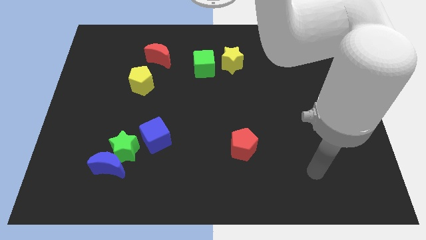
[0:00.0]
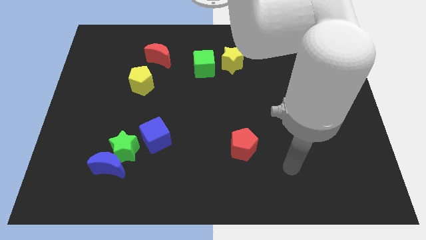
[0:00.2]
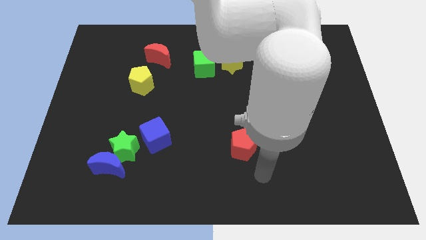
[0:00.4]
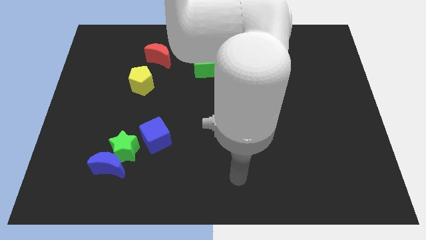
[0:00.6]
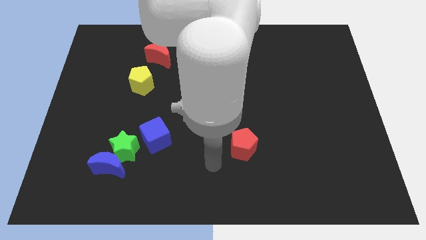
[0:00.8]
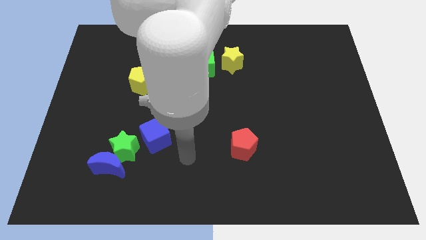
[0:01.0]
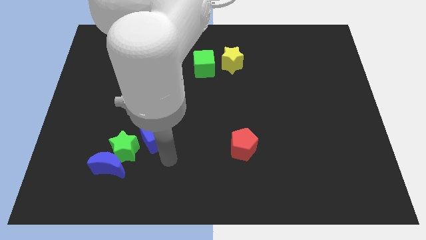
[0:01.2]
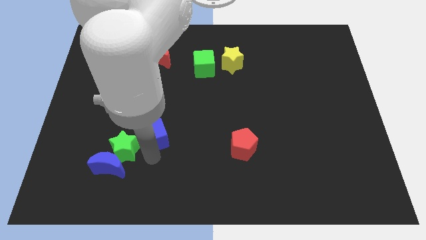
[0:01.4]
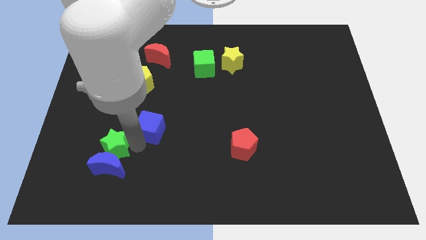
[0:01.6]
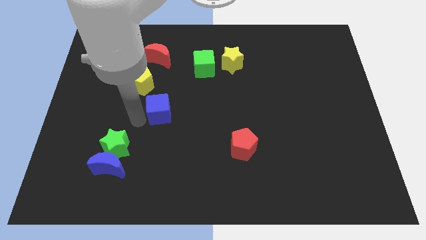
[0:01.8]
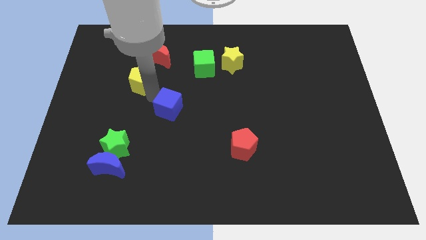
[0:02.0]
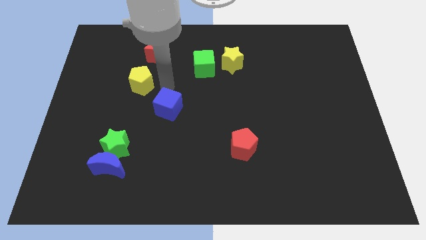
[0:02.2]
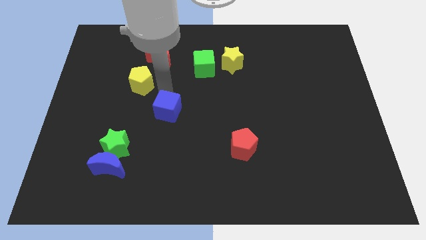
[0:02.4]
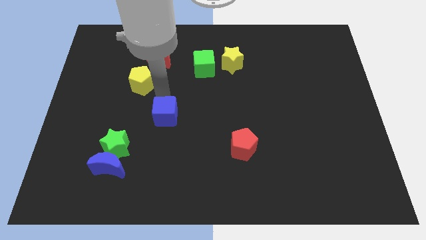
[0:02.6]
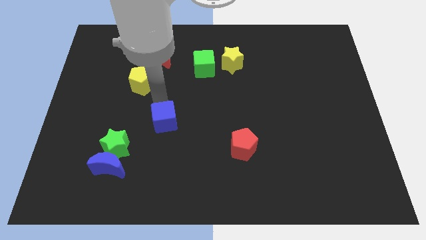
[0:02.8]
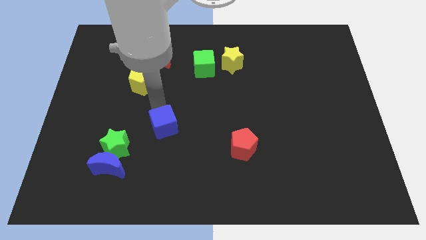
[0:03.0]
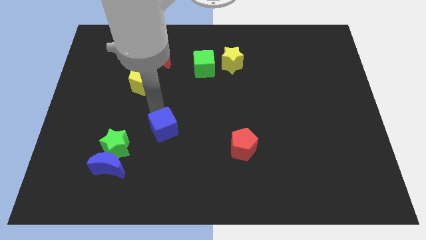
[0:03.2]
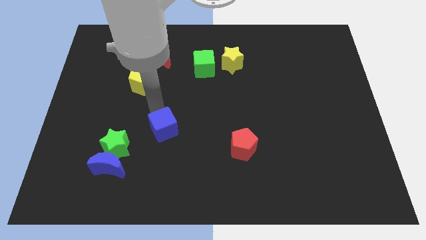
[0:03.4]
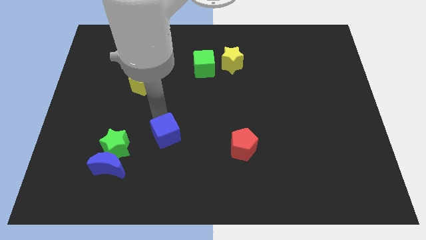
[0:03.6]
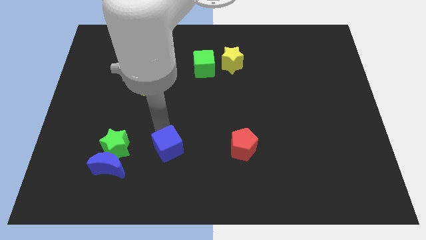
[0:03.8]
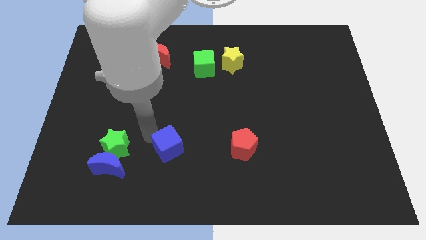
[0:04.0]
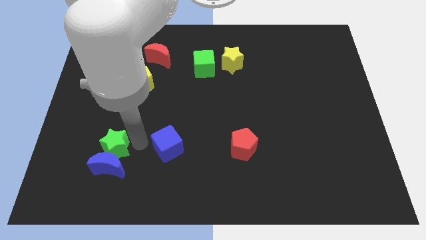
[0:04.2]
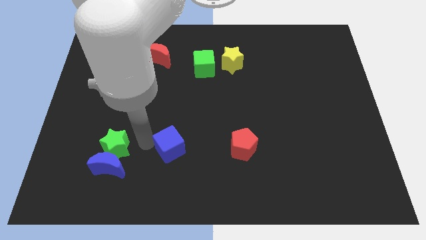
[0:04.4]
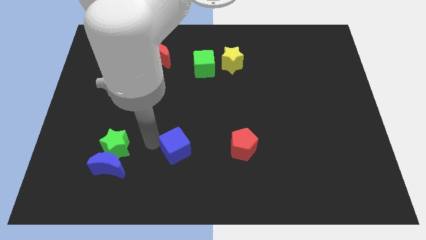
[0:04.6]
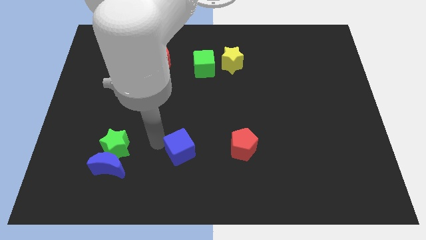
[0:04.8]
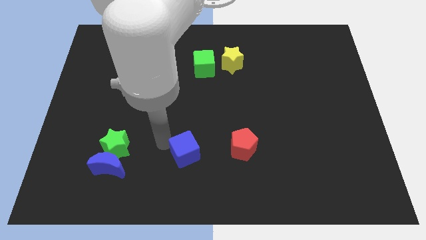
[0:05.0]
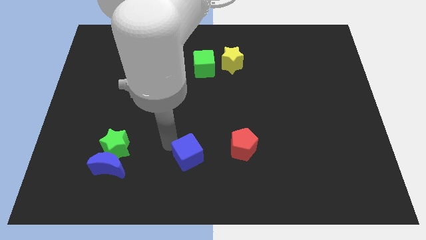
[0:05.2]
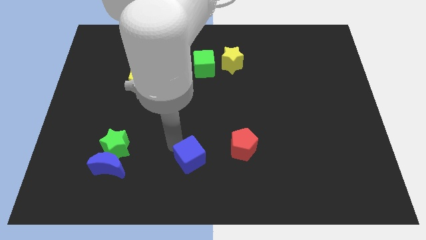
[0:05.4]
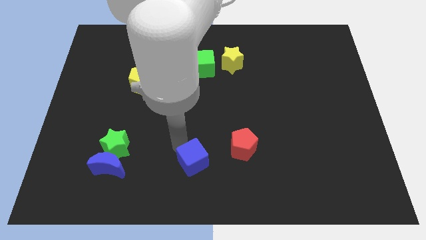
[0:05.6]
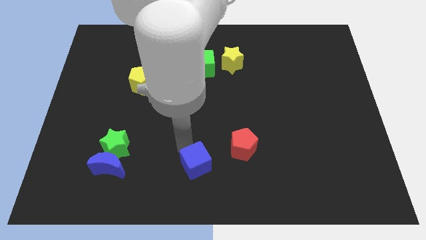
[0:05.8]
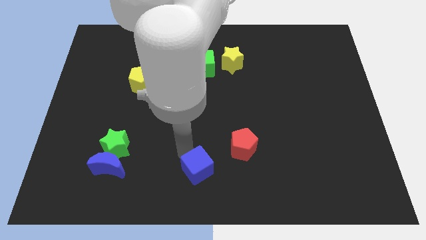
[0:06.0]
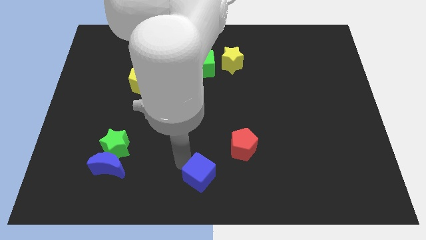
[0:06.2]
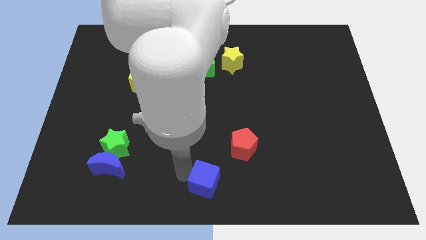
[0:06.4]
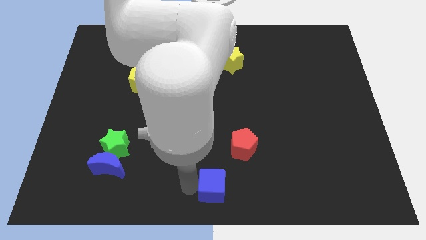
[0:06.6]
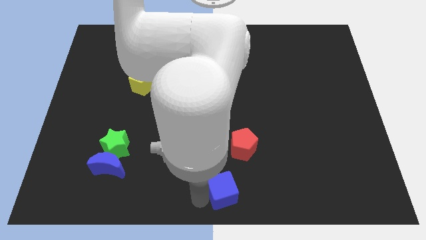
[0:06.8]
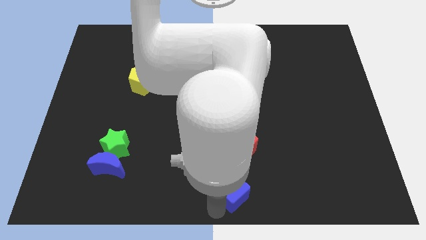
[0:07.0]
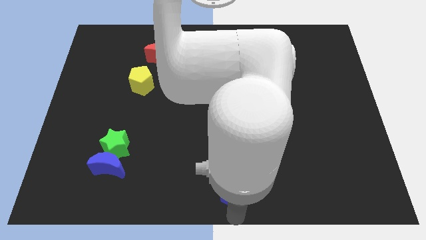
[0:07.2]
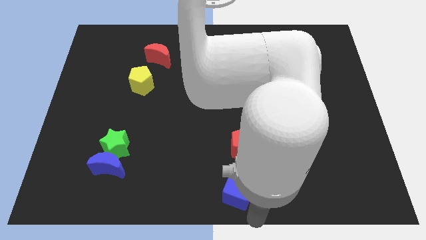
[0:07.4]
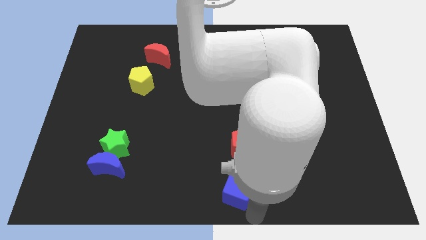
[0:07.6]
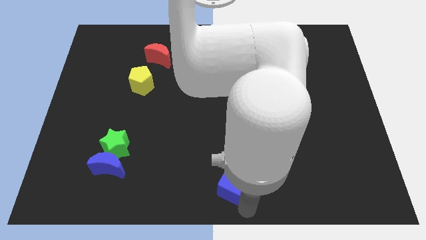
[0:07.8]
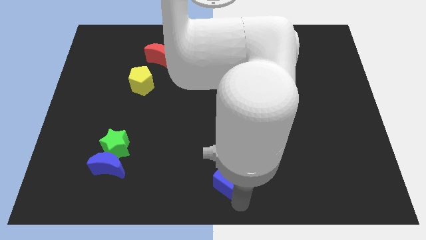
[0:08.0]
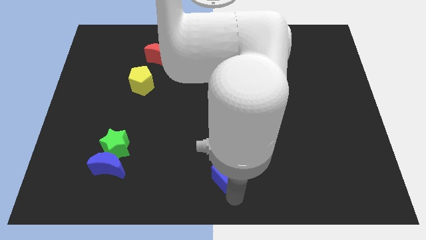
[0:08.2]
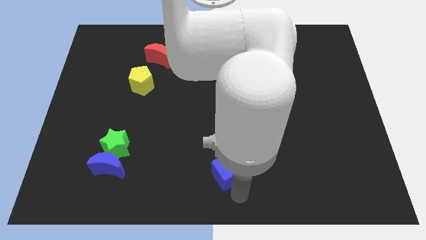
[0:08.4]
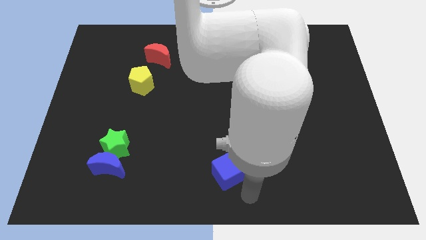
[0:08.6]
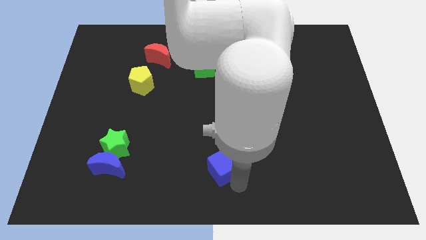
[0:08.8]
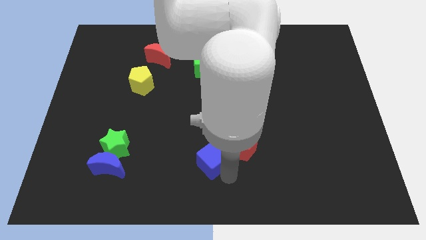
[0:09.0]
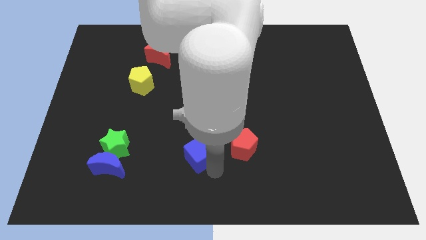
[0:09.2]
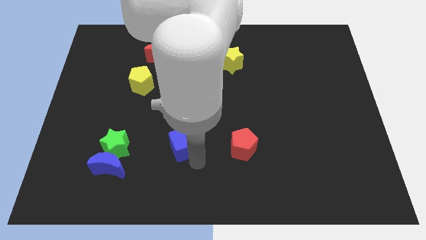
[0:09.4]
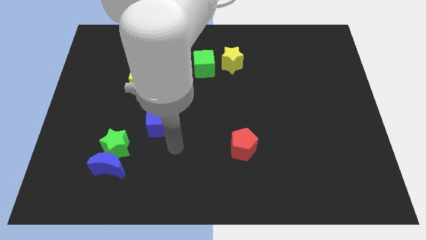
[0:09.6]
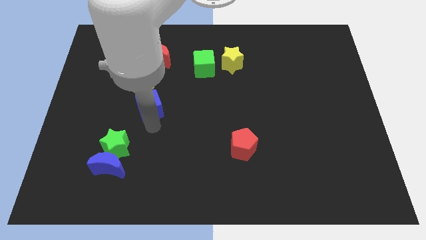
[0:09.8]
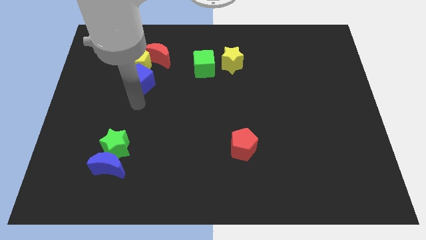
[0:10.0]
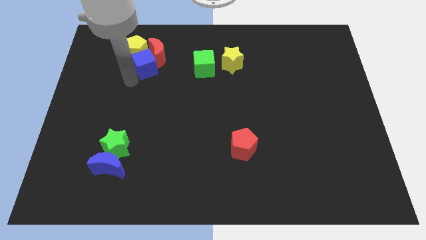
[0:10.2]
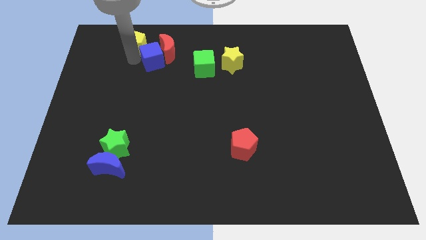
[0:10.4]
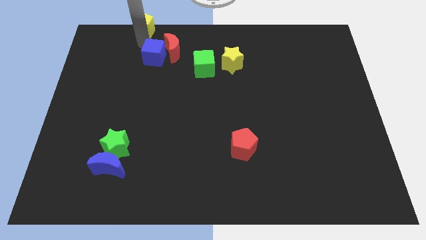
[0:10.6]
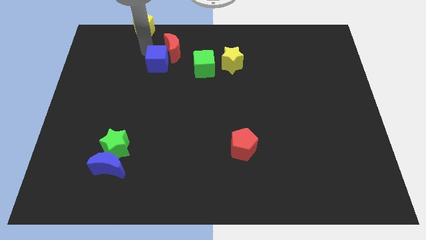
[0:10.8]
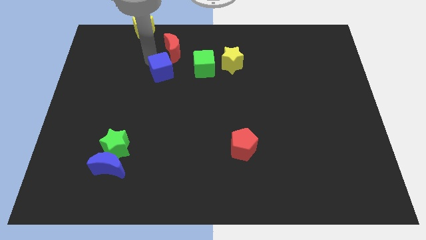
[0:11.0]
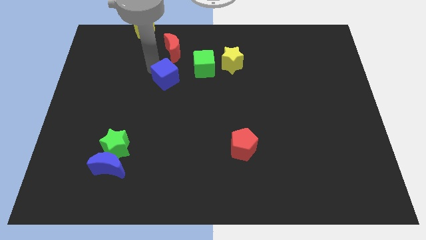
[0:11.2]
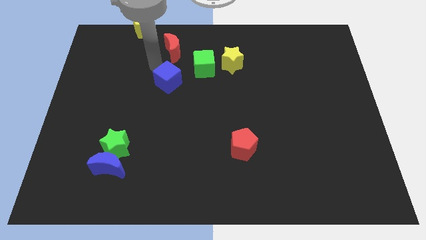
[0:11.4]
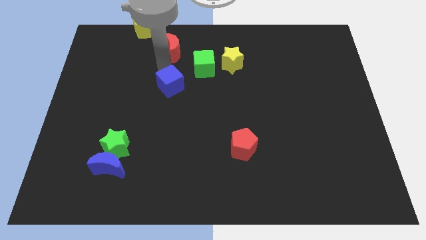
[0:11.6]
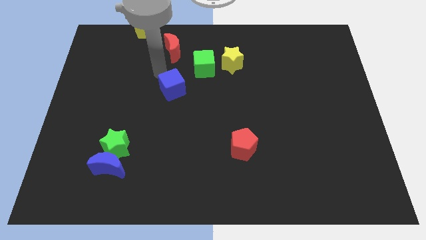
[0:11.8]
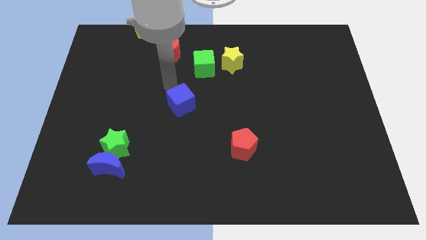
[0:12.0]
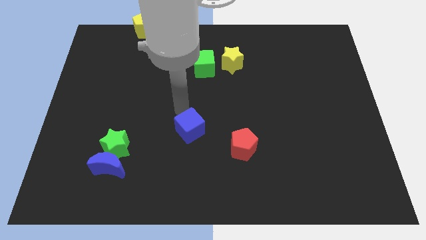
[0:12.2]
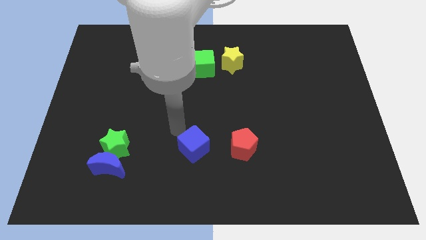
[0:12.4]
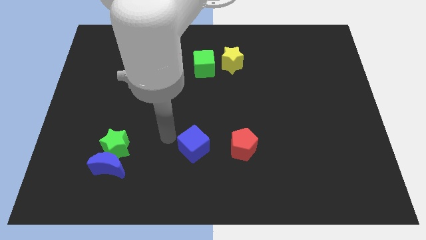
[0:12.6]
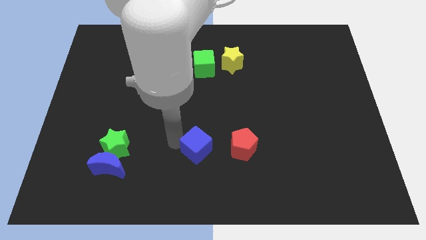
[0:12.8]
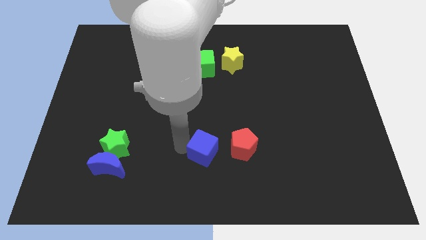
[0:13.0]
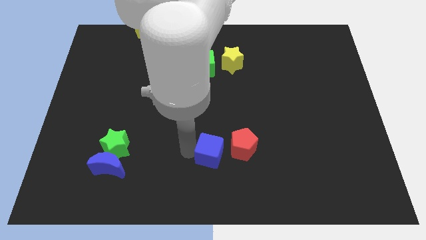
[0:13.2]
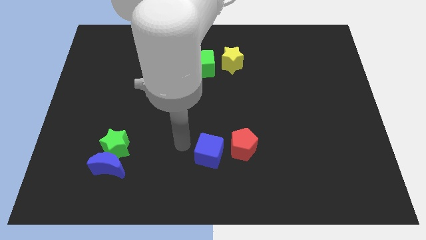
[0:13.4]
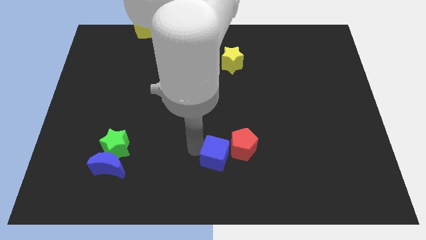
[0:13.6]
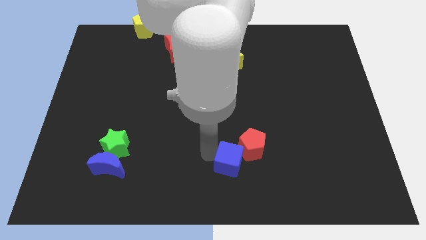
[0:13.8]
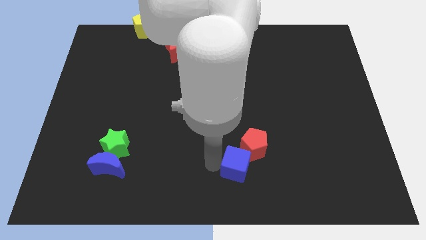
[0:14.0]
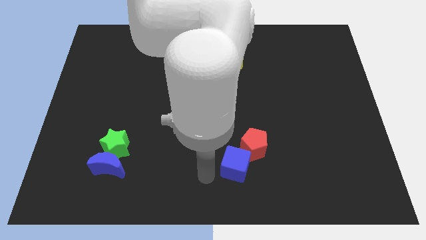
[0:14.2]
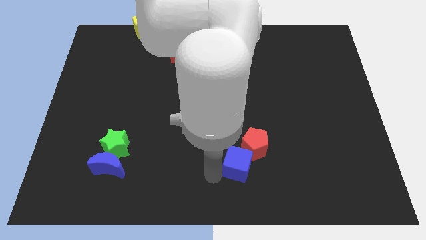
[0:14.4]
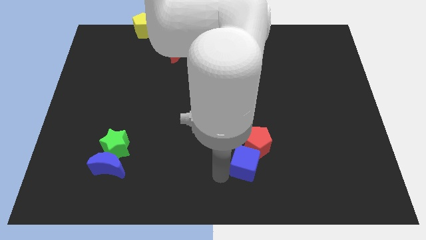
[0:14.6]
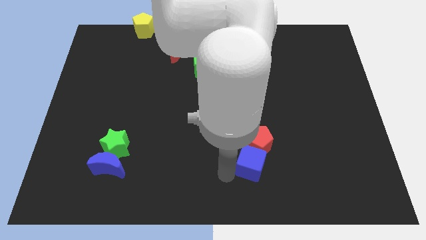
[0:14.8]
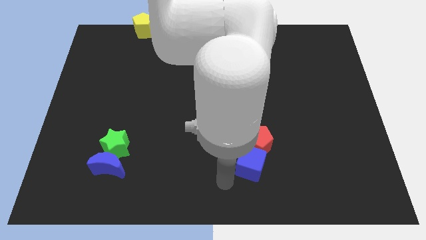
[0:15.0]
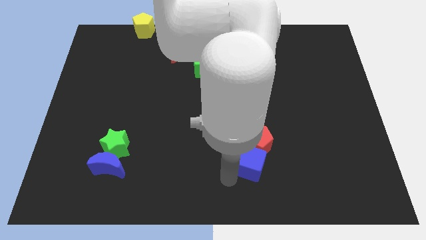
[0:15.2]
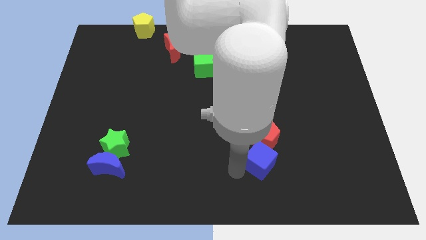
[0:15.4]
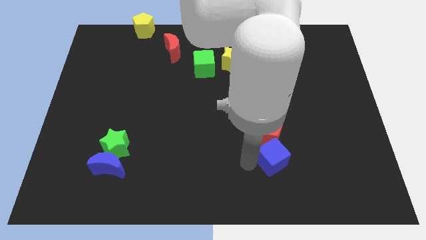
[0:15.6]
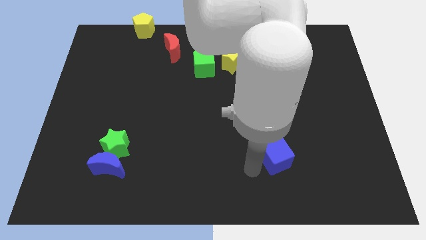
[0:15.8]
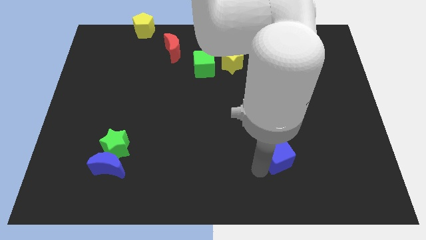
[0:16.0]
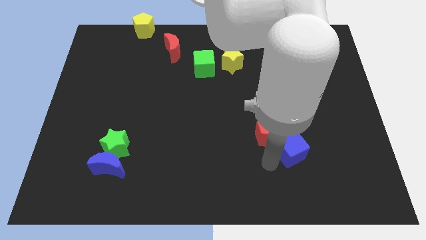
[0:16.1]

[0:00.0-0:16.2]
push the blue cube right of the red pentagon
